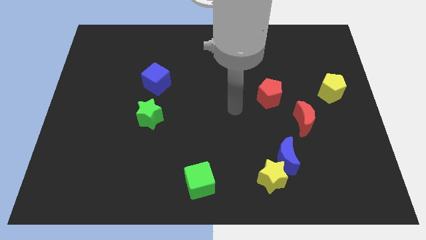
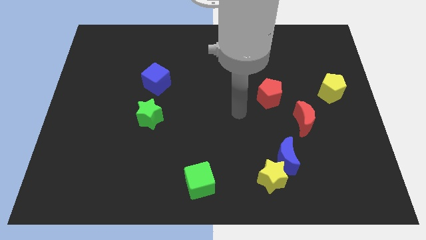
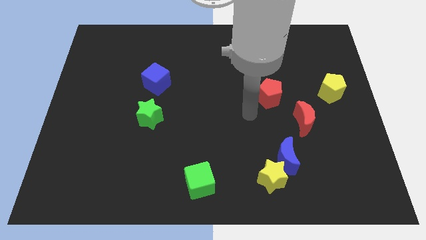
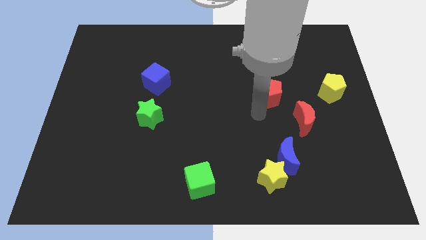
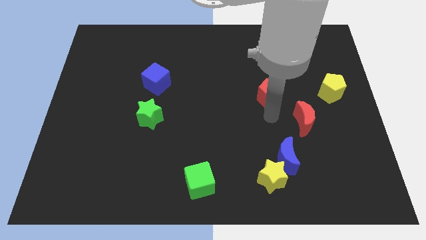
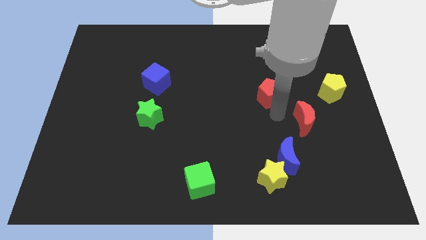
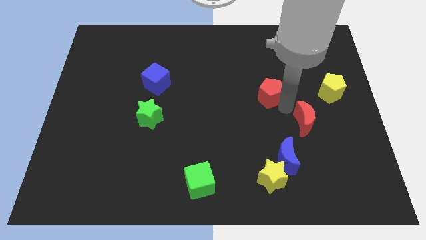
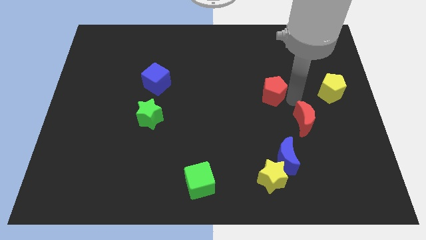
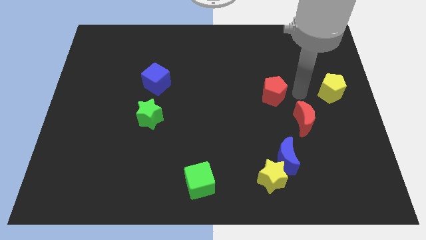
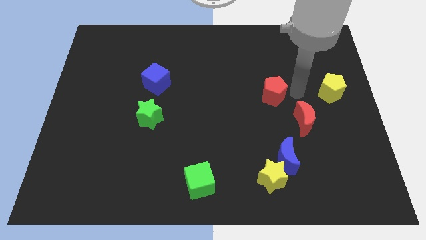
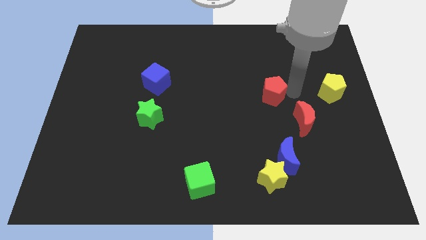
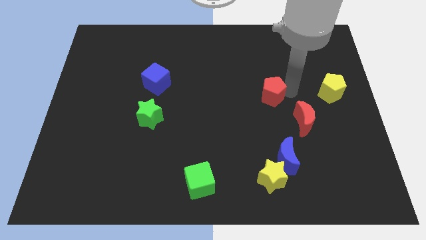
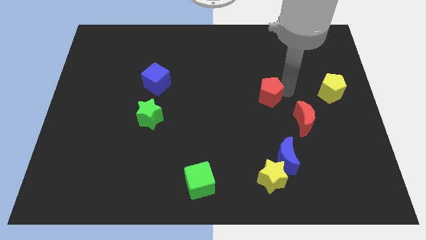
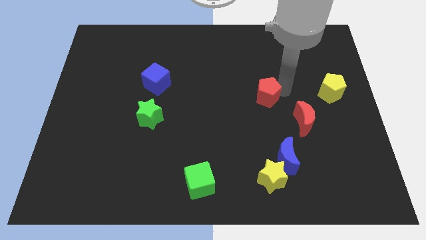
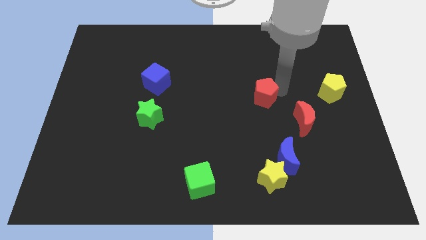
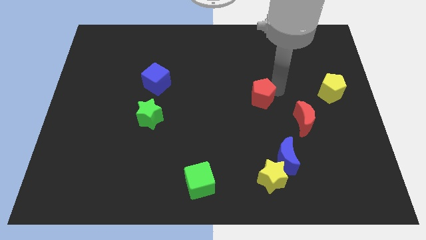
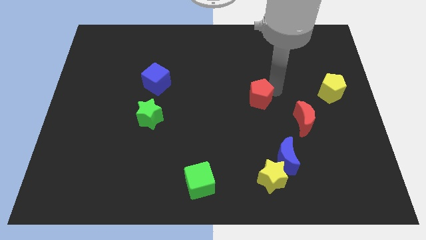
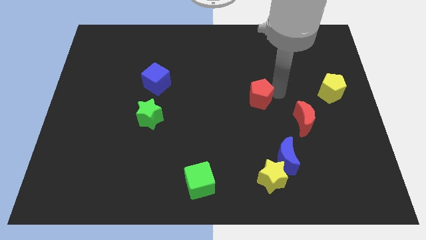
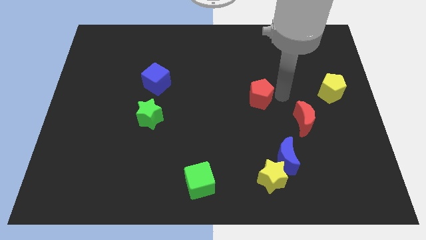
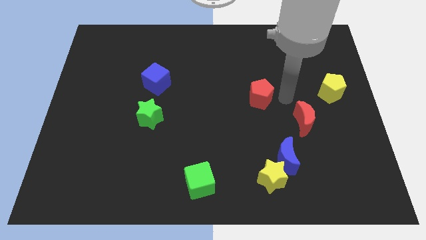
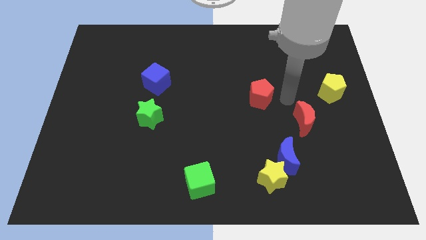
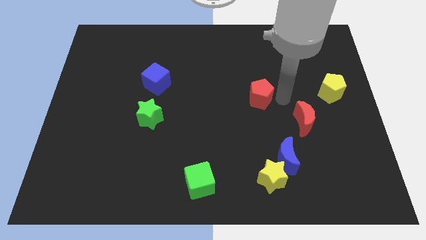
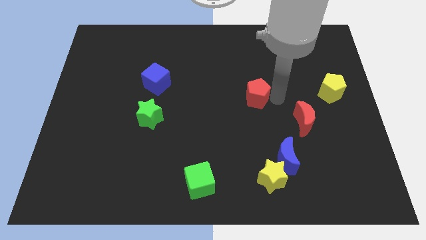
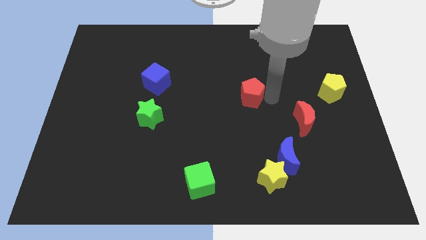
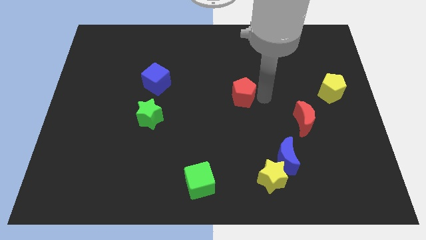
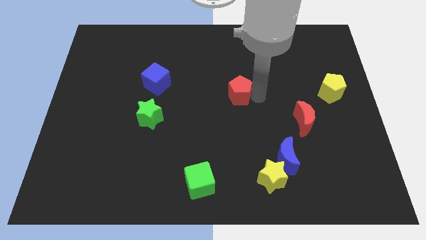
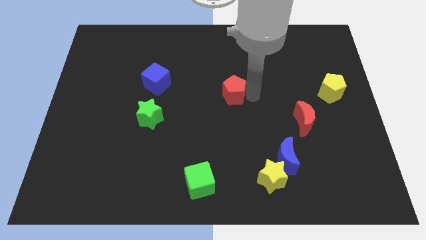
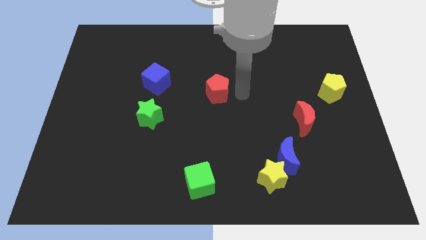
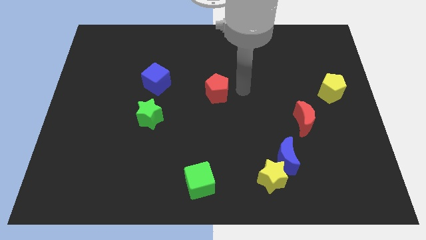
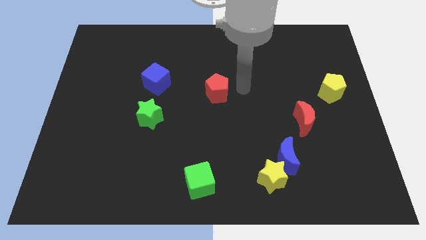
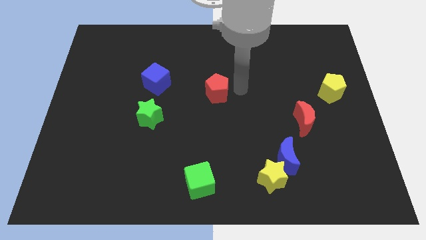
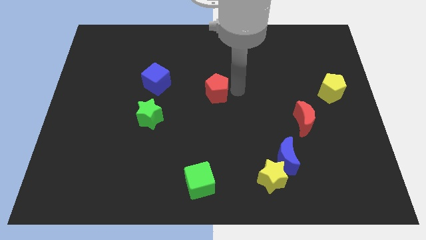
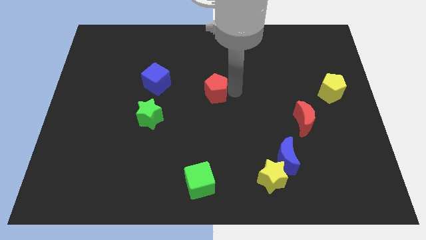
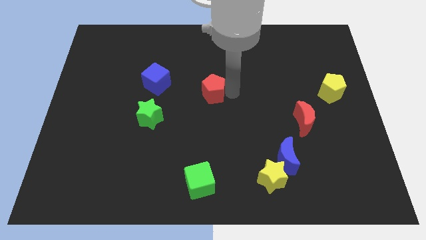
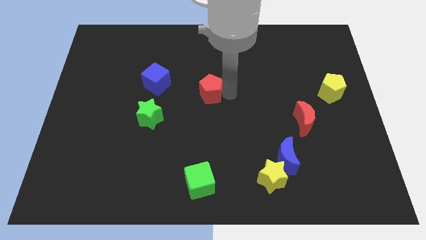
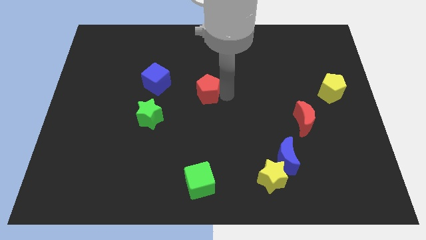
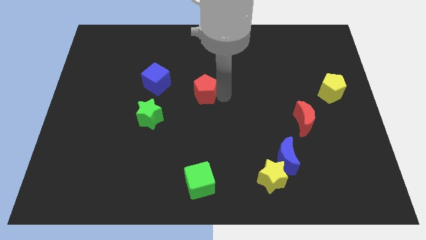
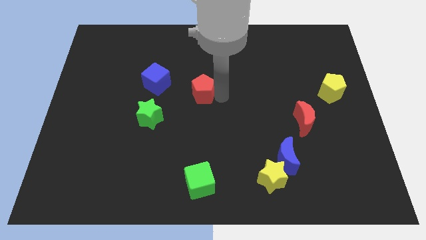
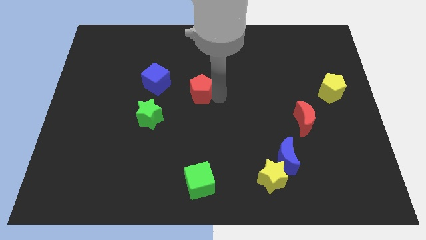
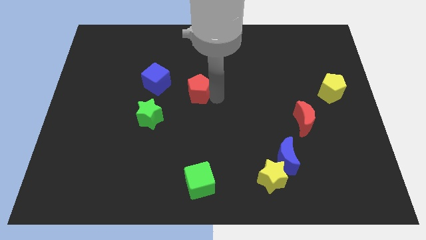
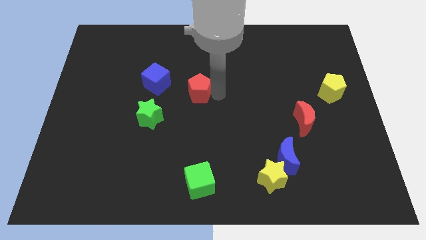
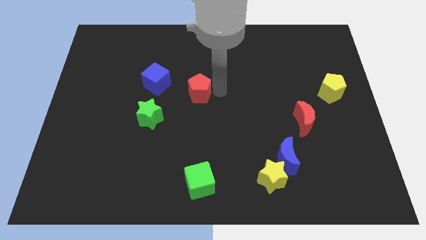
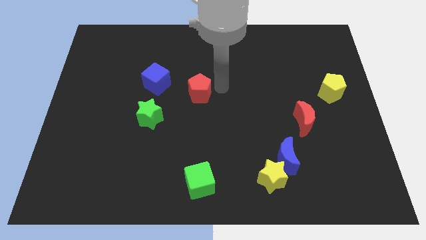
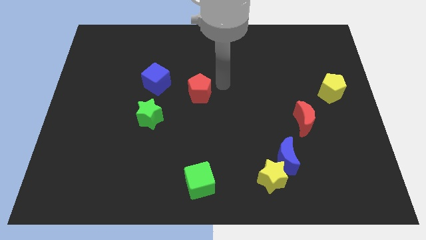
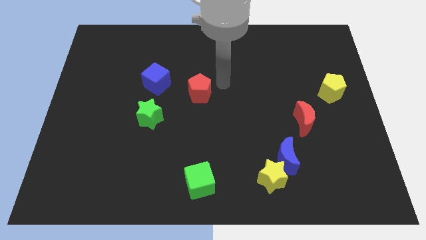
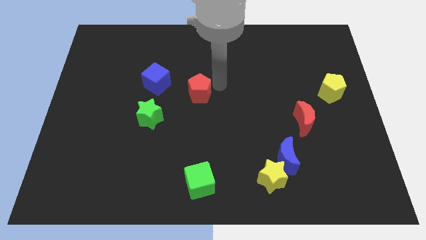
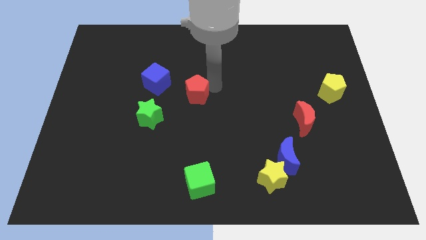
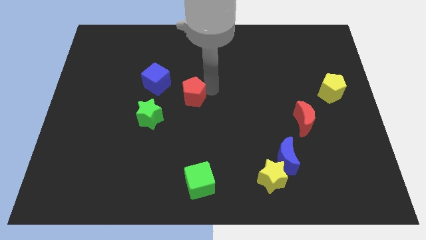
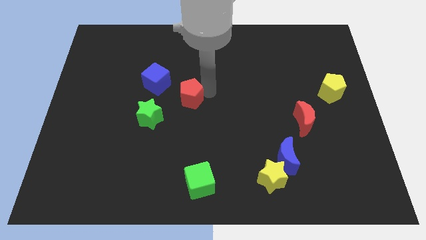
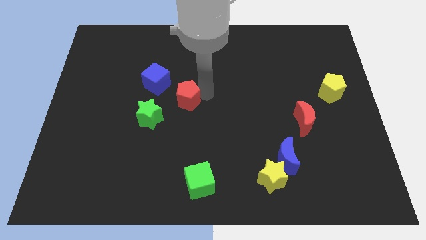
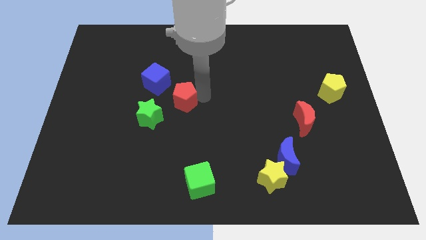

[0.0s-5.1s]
slide the red pentagon left

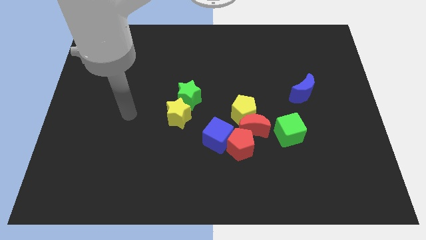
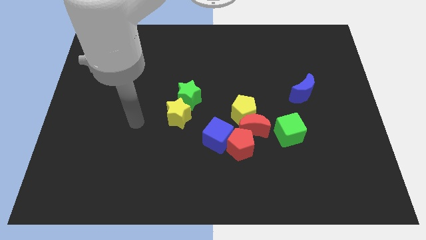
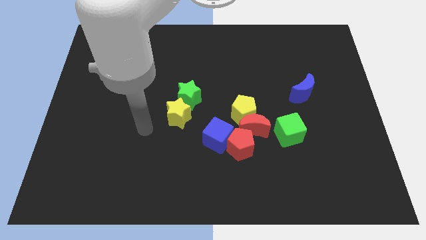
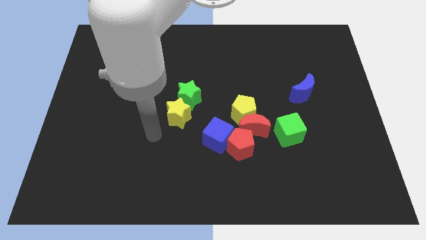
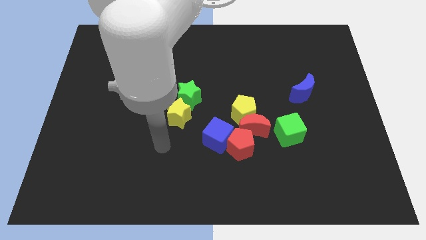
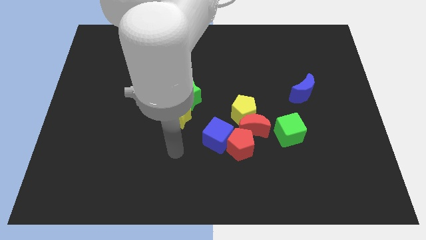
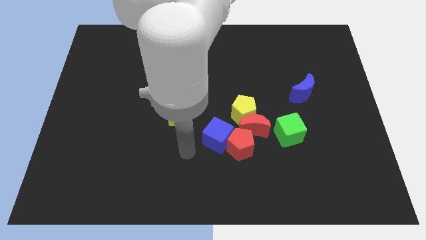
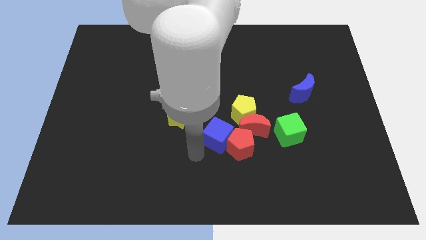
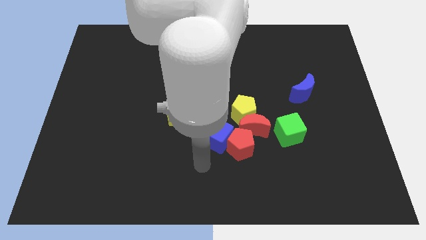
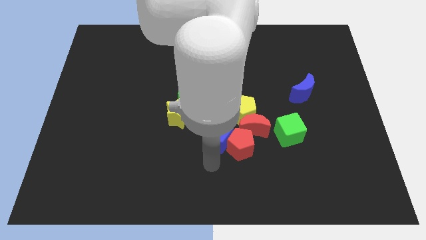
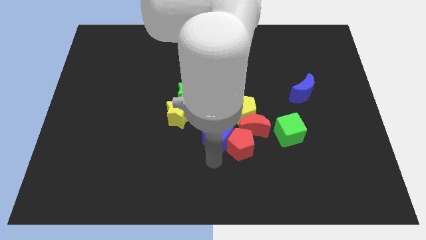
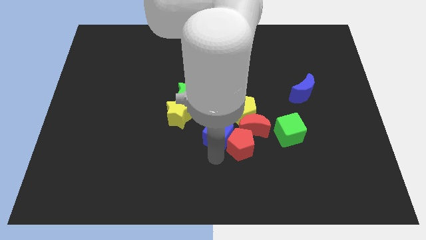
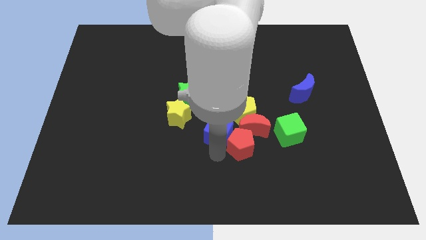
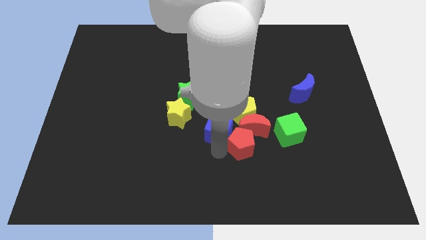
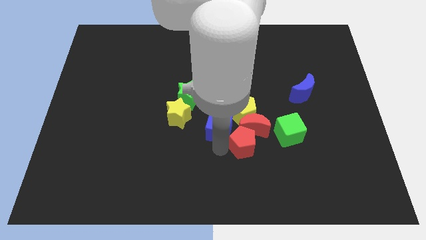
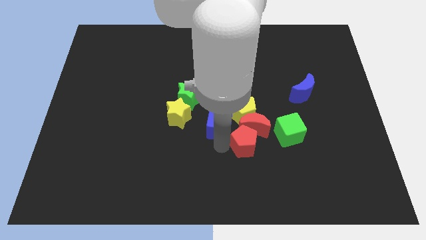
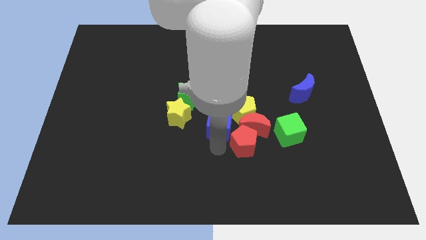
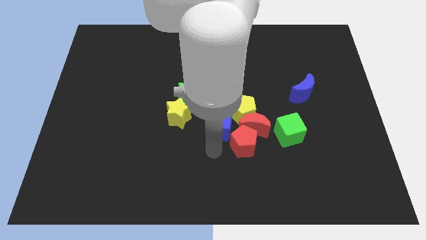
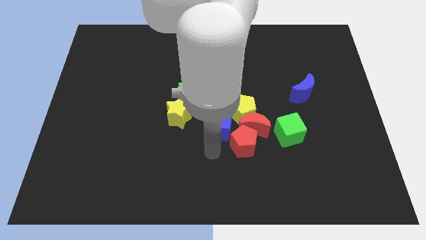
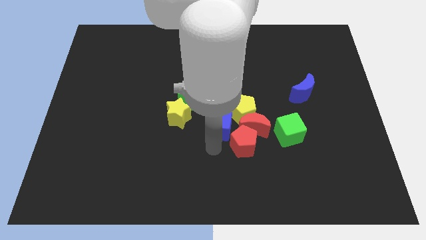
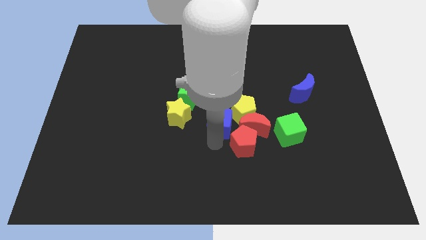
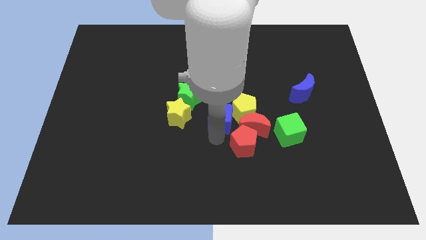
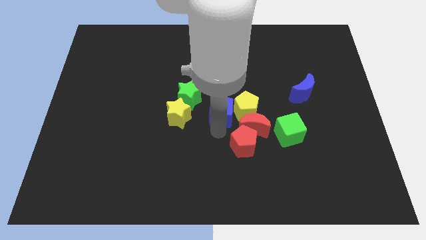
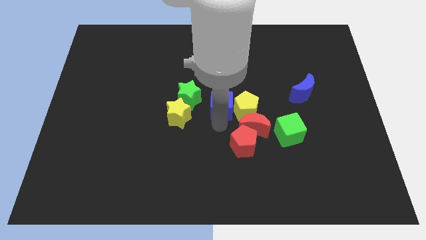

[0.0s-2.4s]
slide the blue cube a little bit upwards

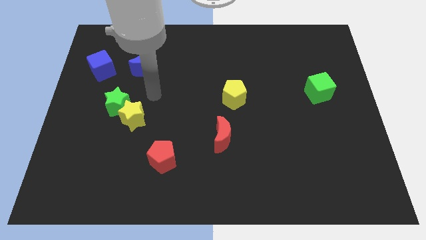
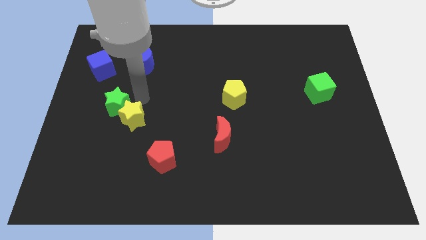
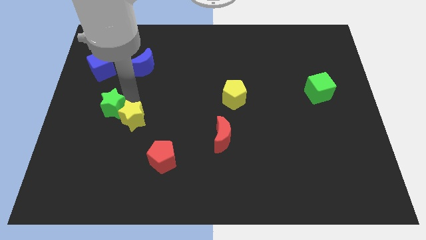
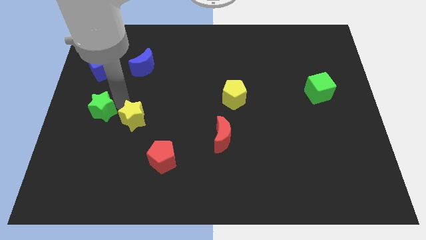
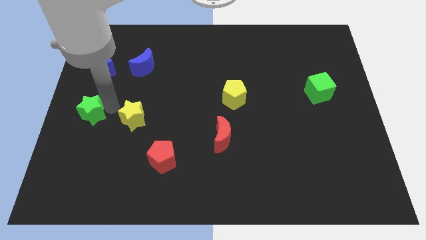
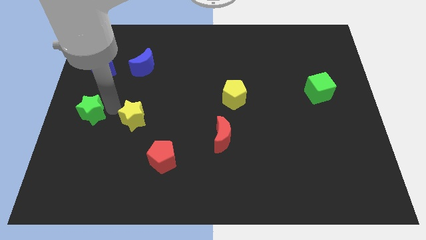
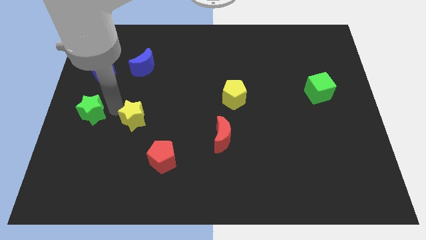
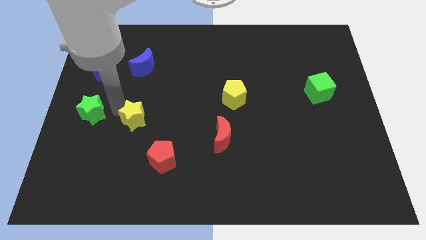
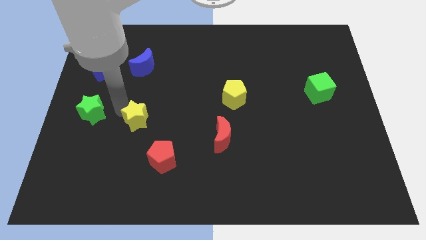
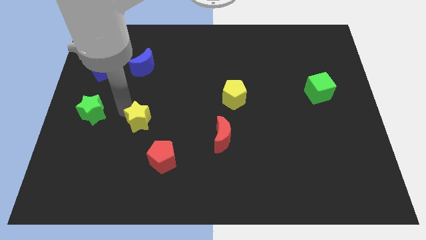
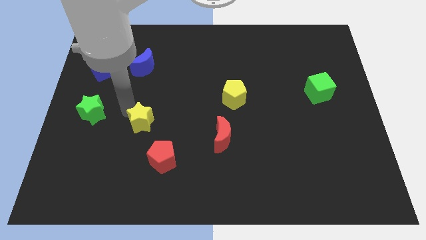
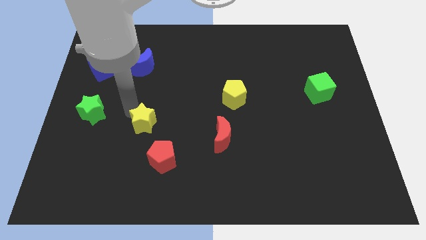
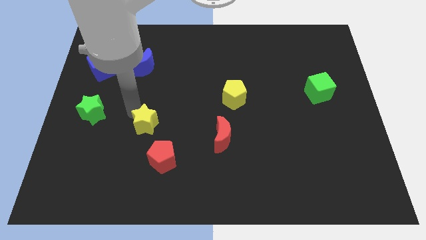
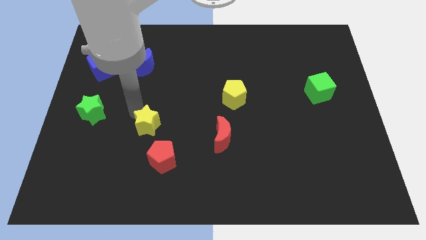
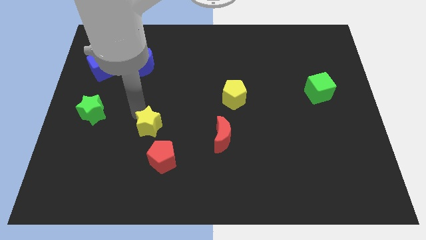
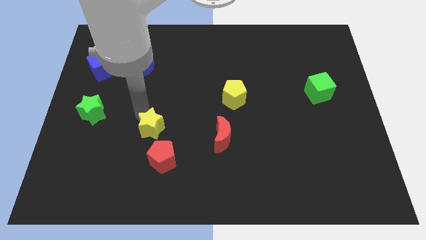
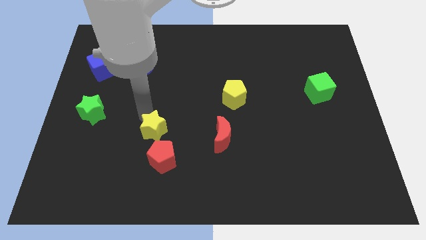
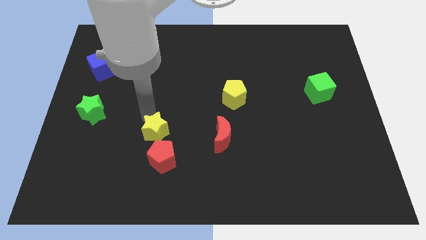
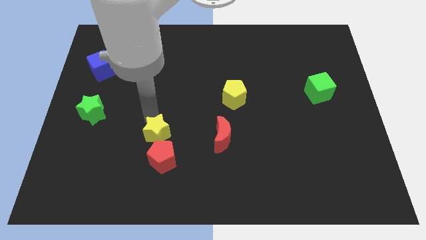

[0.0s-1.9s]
slightly slide the yellow star diagonally downwards and right
